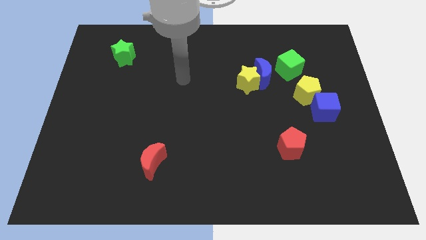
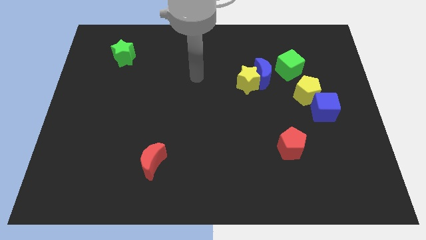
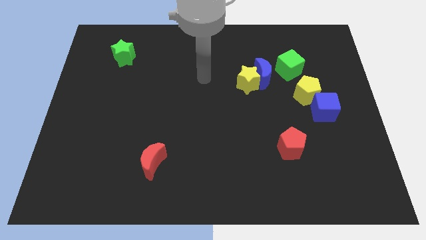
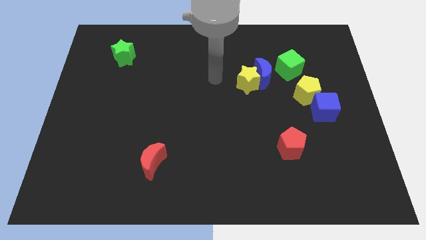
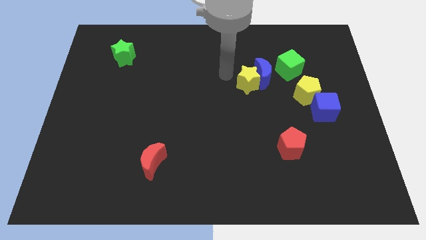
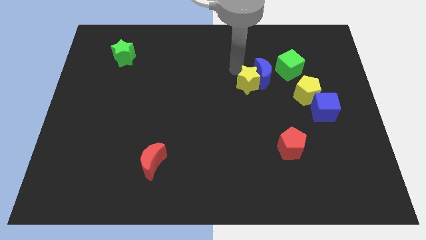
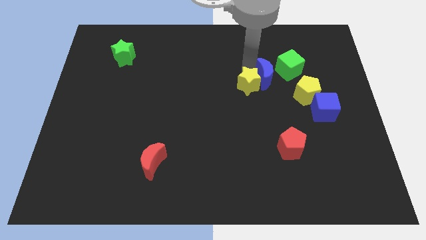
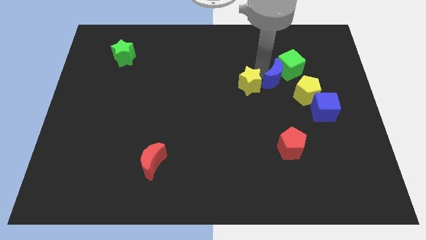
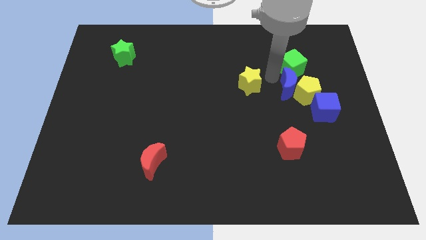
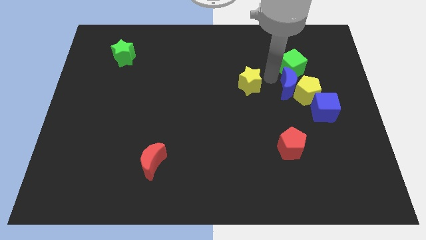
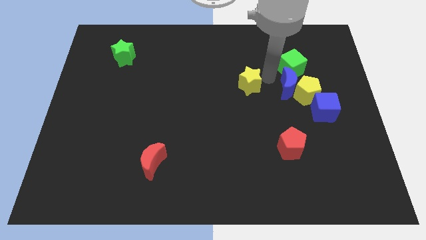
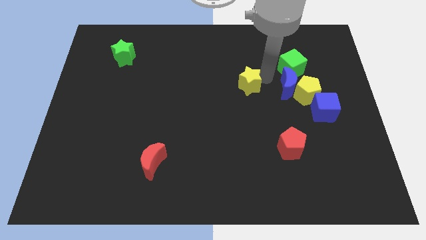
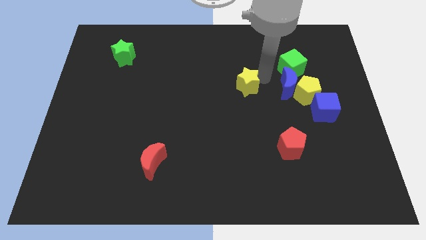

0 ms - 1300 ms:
separate the yellow star from the blue moon

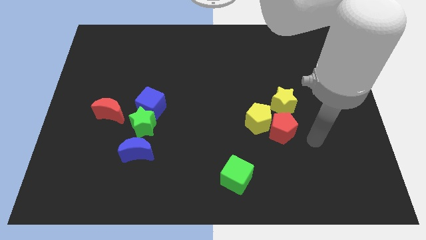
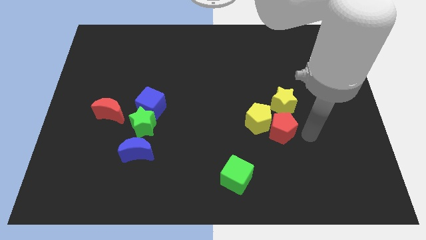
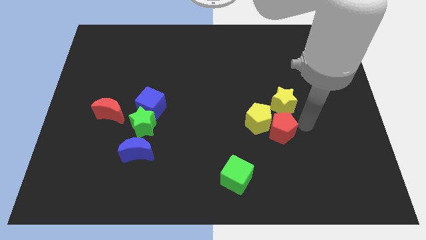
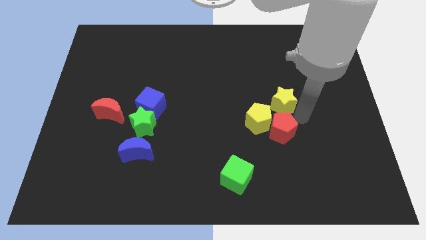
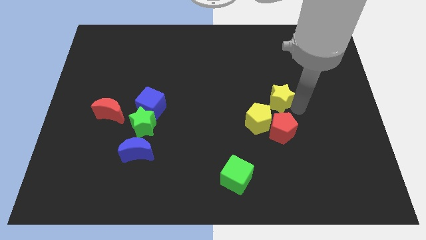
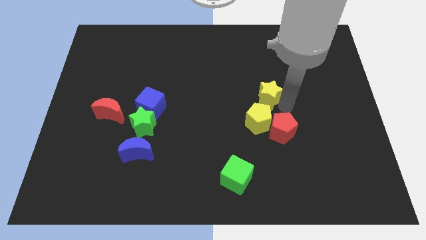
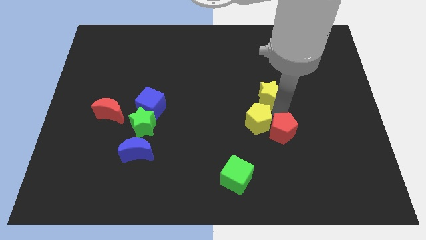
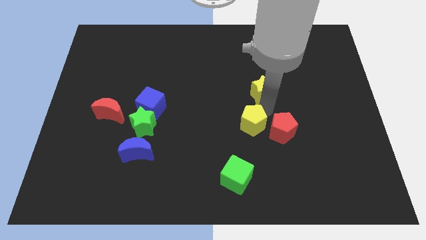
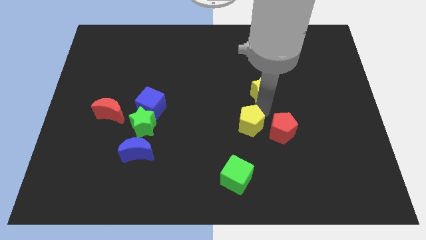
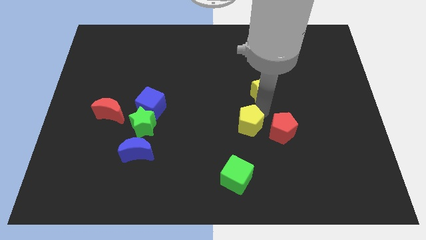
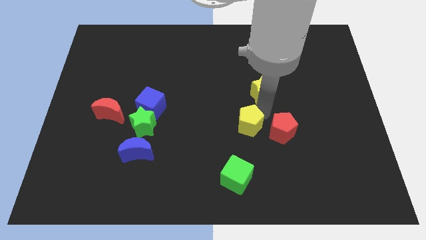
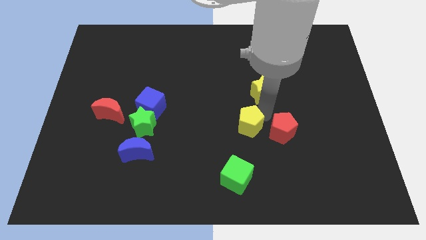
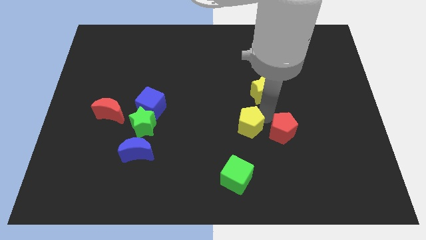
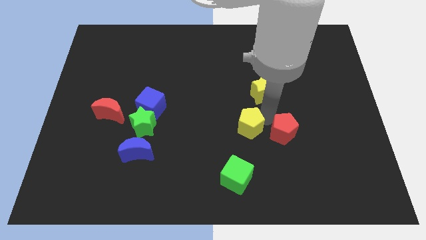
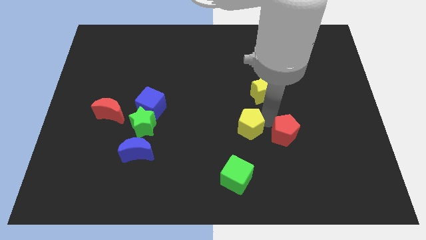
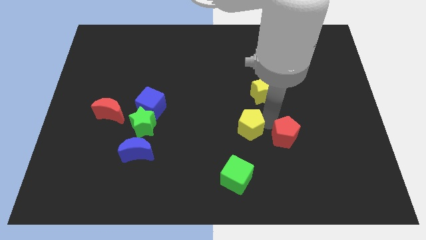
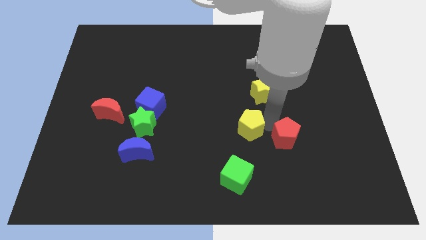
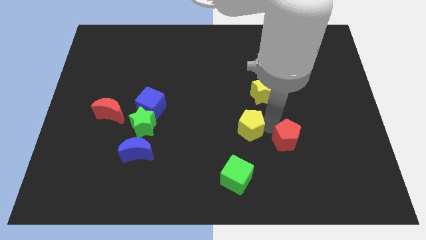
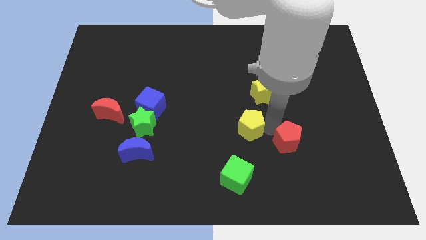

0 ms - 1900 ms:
pull the red pentagon apart from the yellow pentagon and yellow star

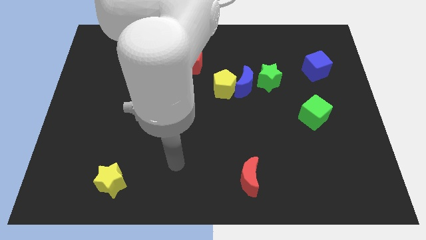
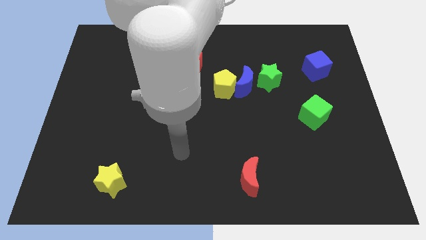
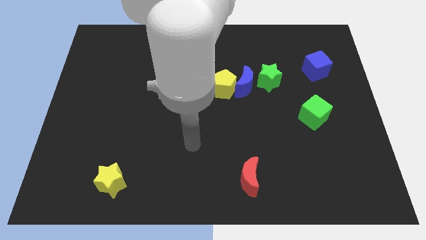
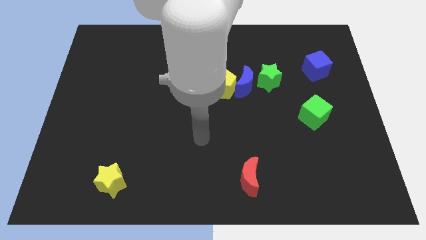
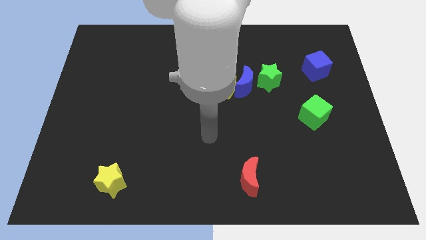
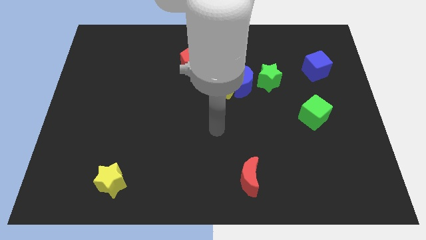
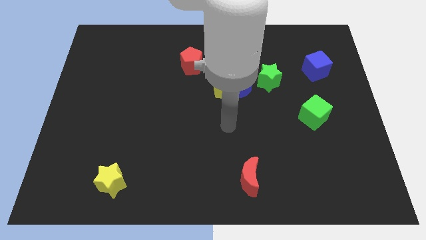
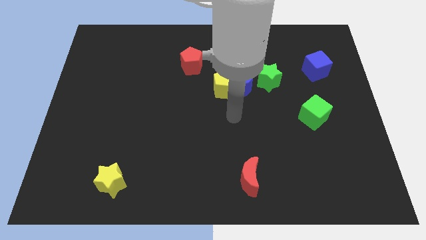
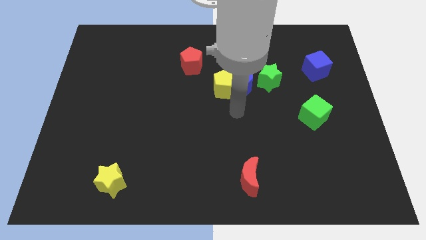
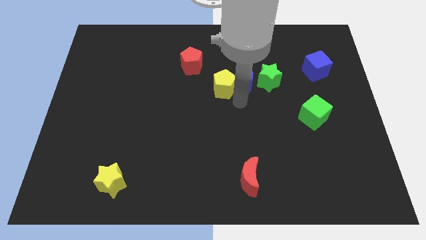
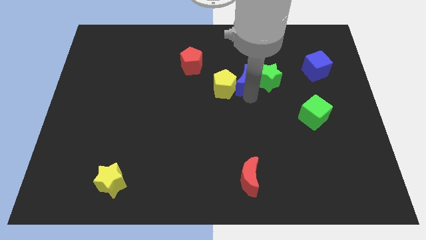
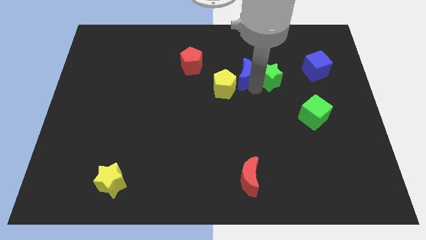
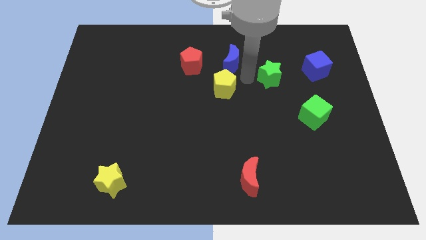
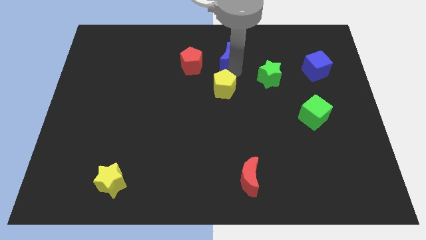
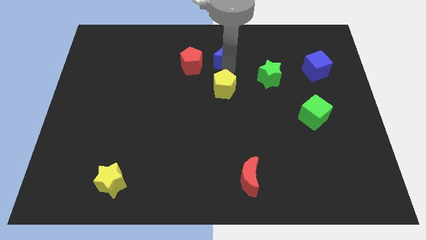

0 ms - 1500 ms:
separate the yellow pentagon from the blue moon

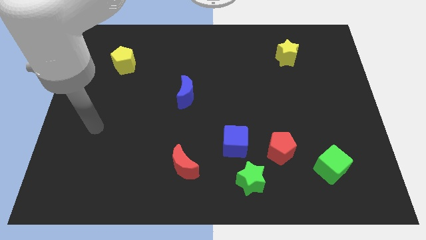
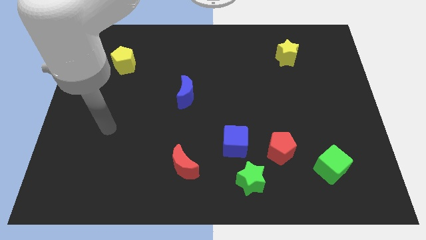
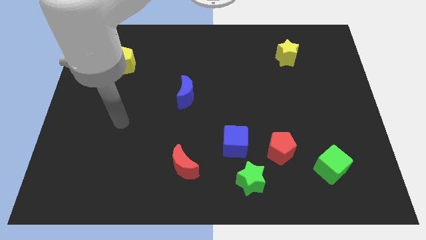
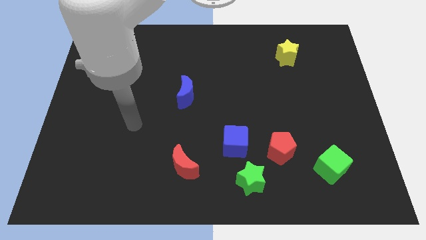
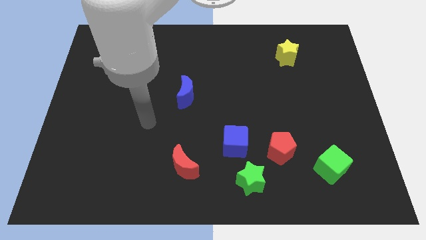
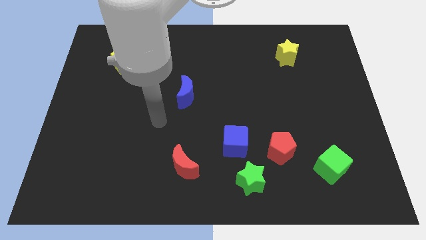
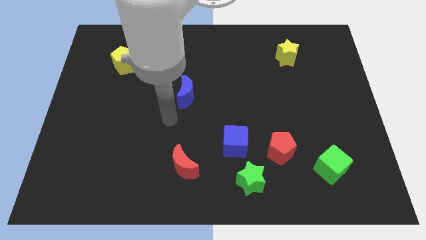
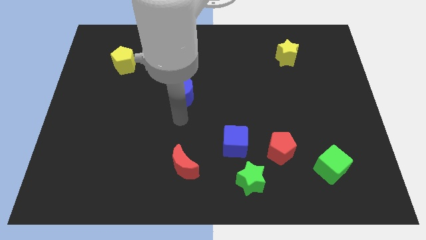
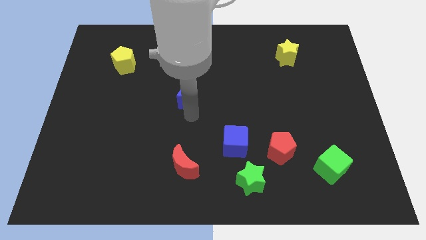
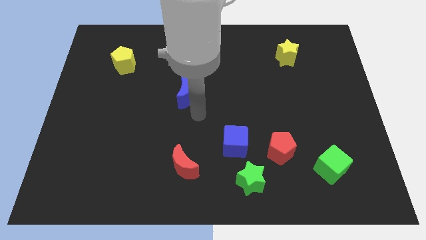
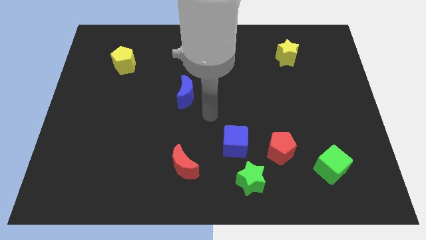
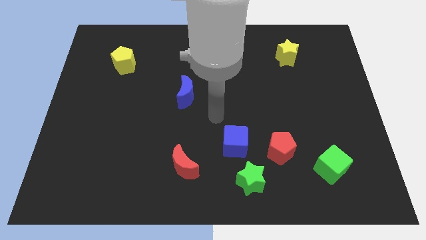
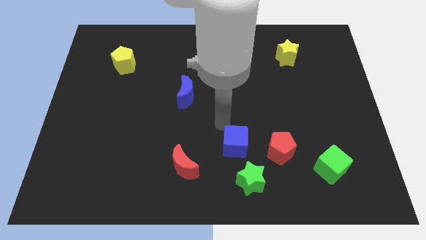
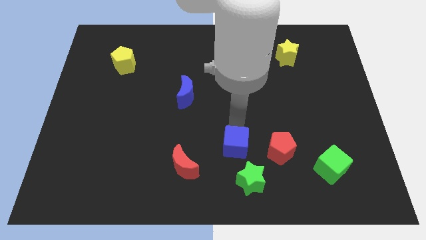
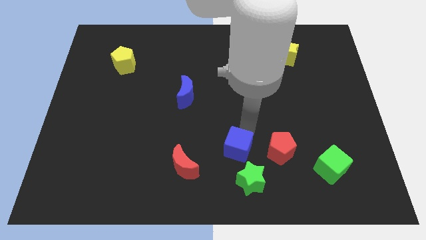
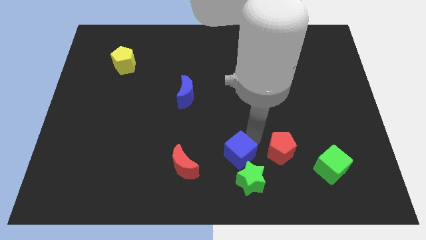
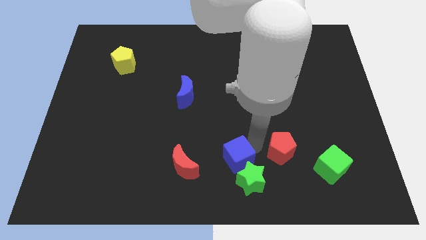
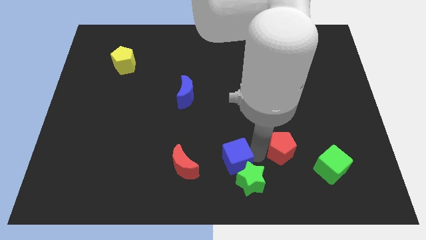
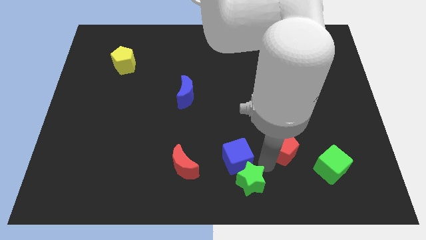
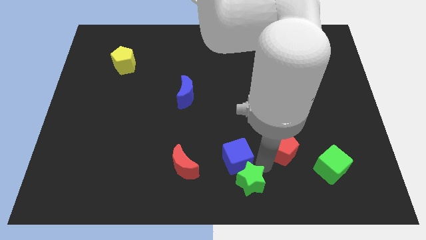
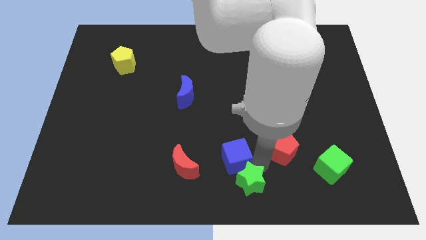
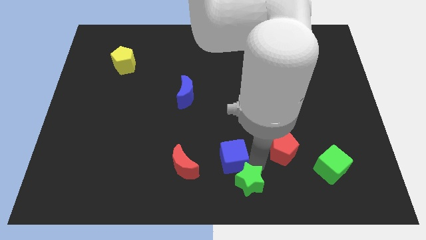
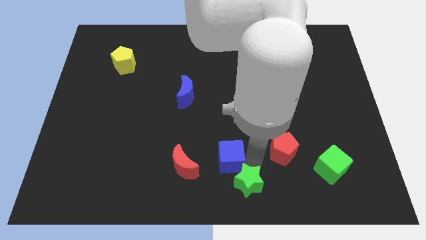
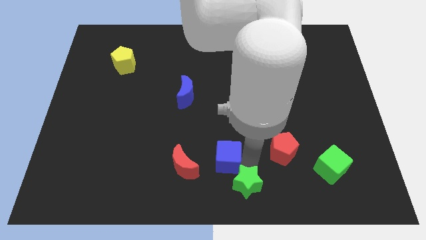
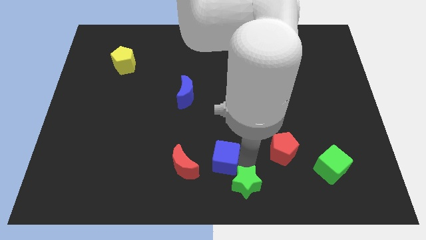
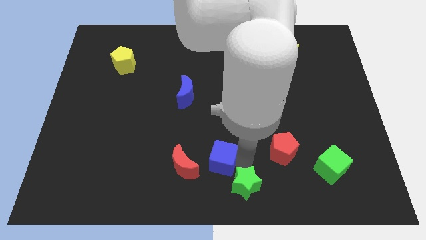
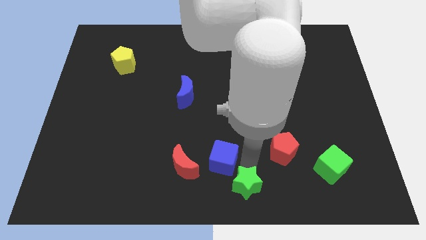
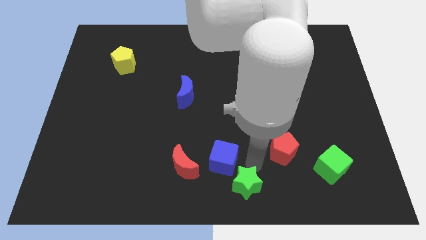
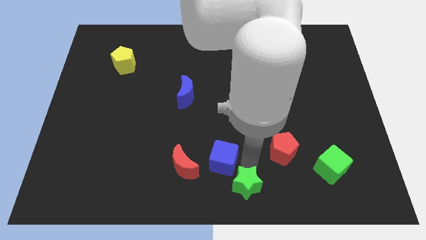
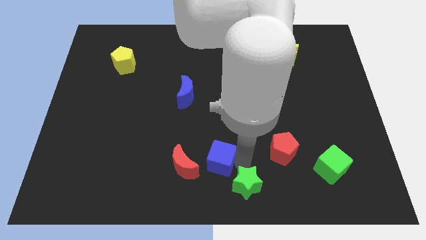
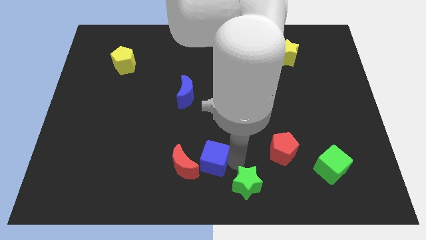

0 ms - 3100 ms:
separate the blue cube from the green star and red pentagon

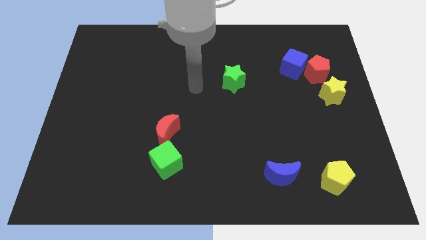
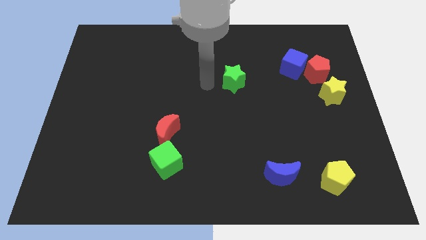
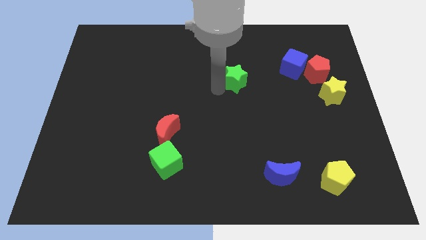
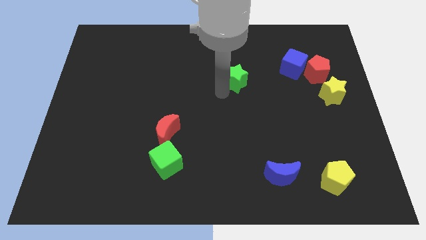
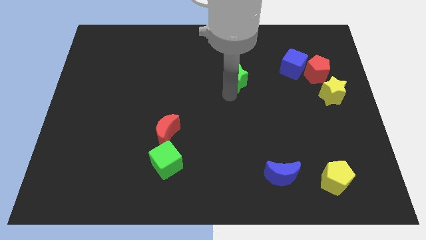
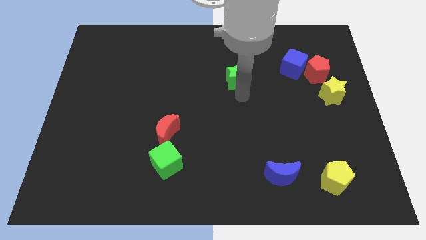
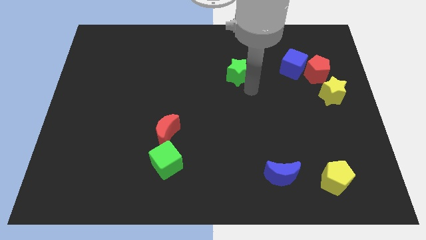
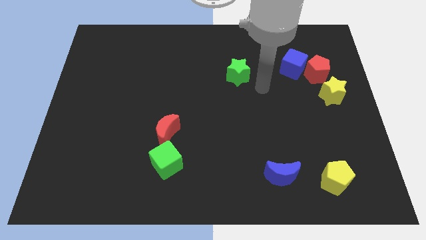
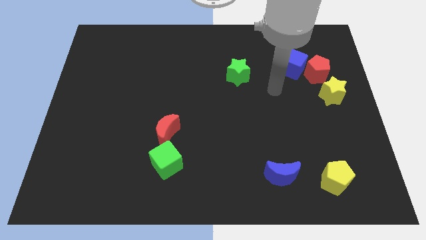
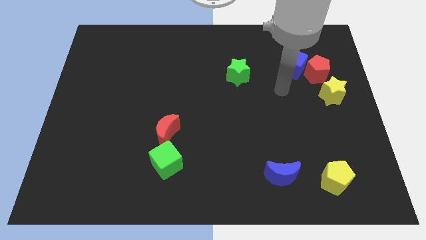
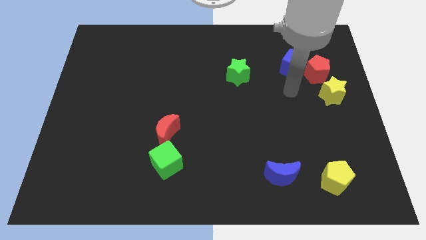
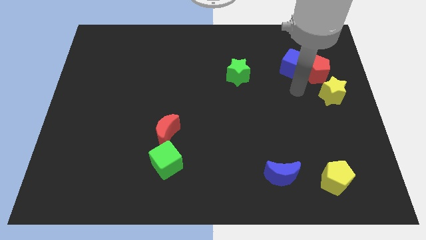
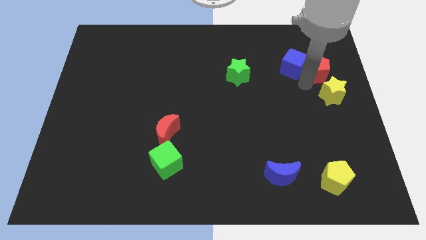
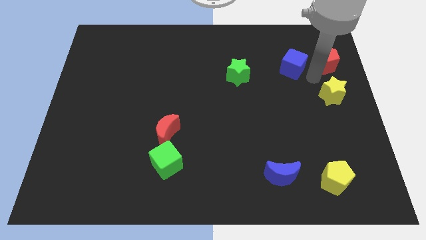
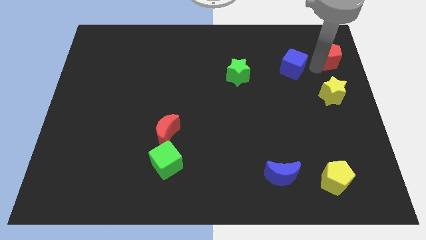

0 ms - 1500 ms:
move the blue cube away from the red pentagon
